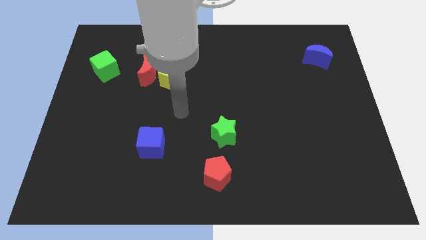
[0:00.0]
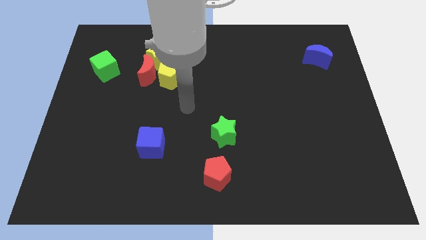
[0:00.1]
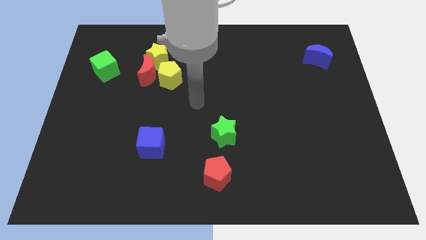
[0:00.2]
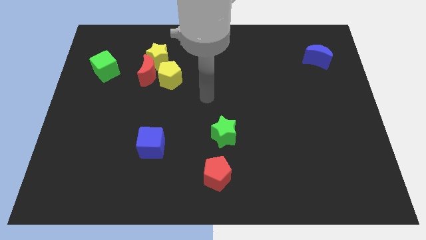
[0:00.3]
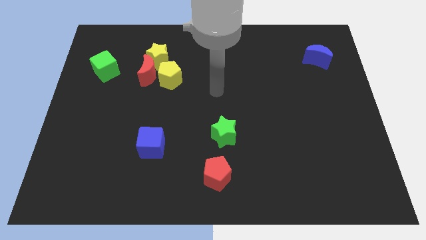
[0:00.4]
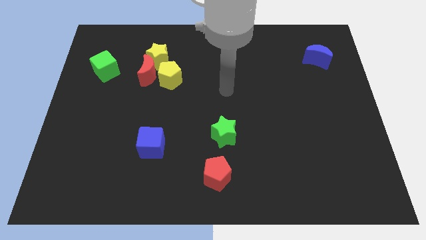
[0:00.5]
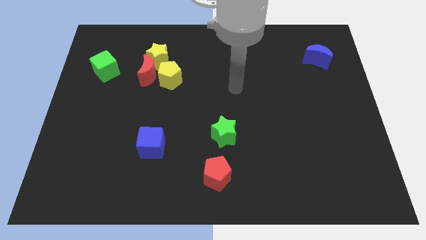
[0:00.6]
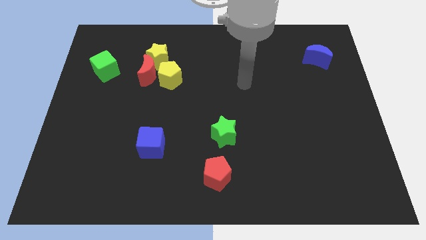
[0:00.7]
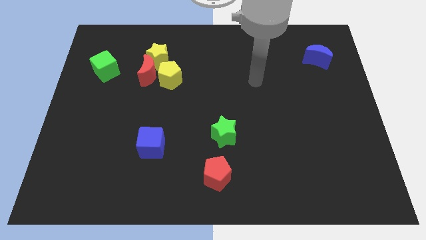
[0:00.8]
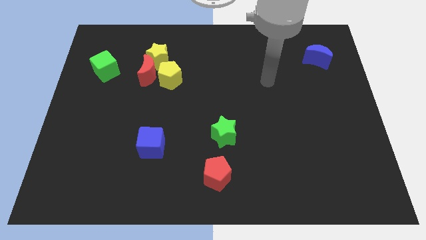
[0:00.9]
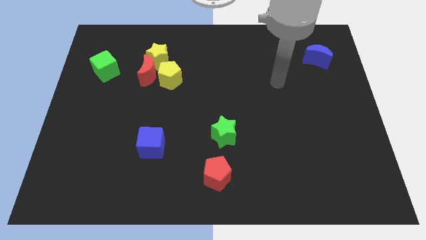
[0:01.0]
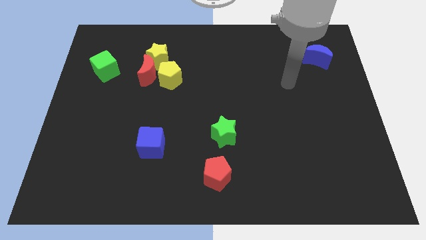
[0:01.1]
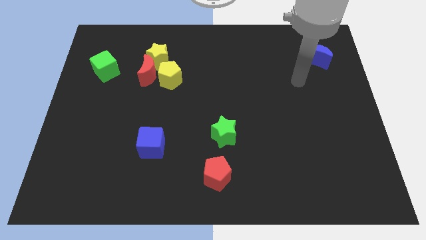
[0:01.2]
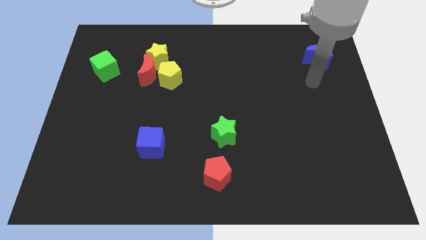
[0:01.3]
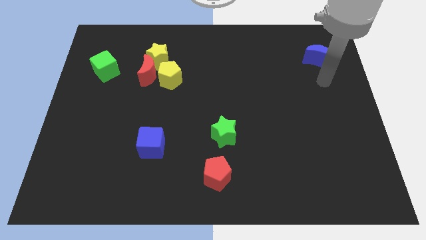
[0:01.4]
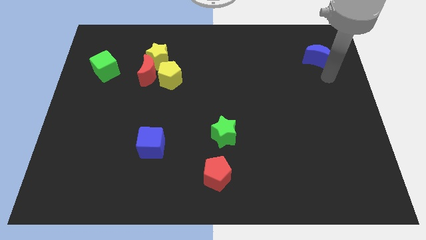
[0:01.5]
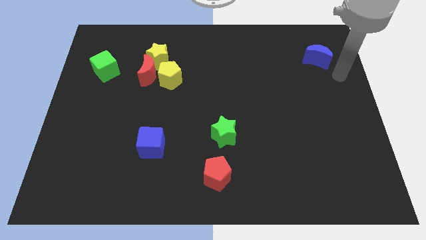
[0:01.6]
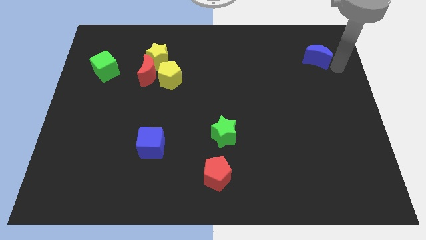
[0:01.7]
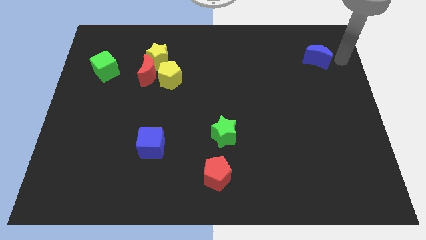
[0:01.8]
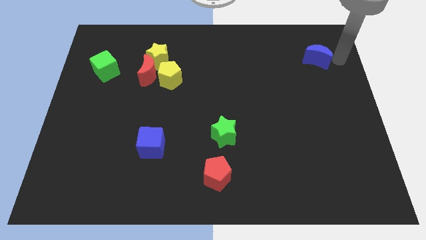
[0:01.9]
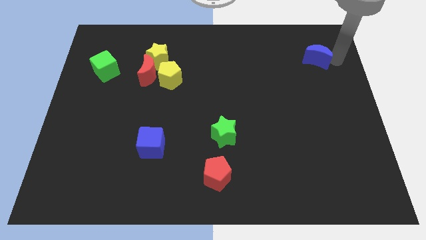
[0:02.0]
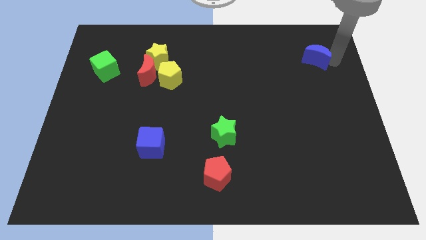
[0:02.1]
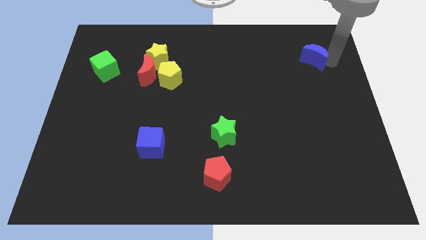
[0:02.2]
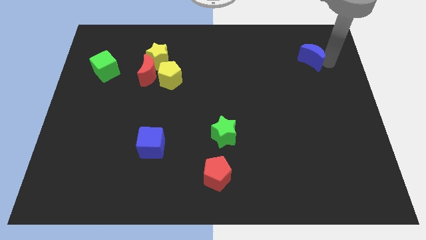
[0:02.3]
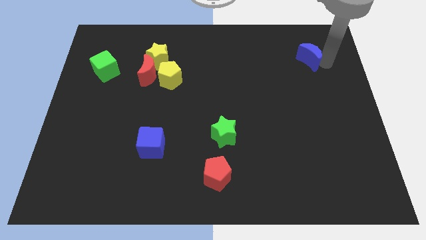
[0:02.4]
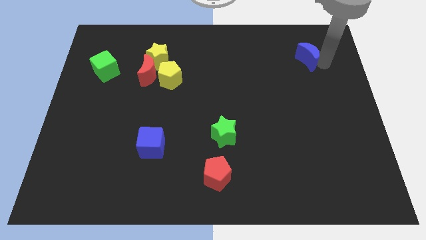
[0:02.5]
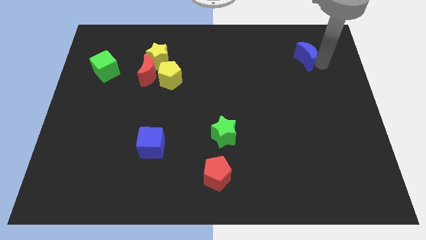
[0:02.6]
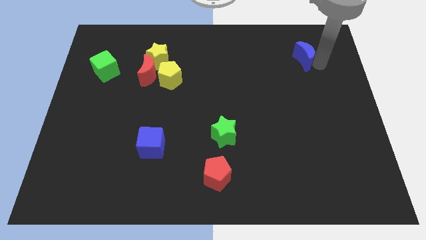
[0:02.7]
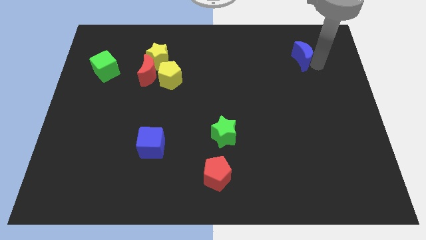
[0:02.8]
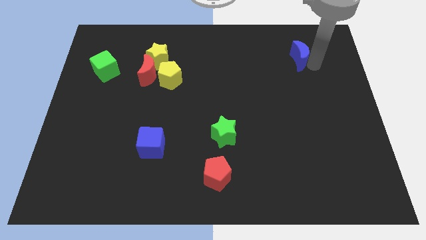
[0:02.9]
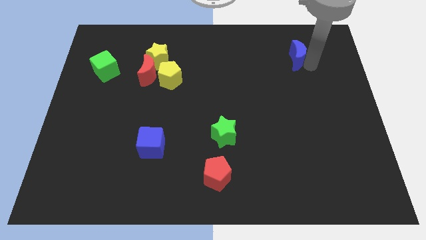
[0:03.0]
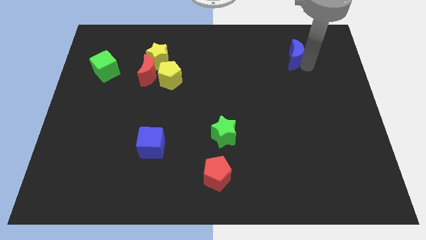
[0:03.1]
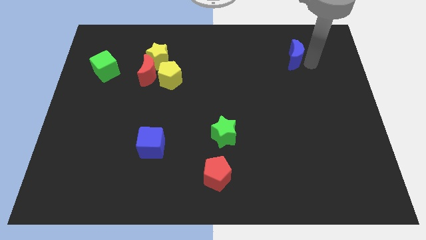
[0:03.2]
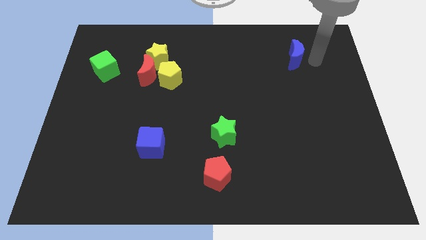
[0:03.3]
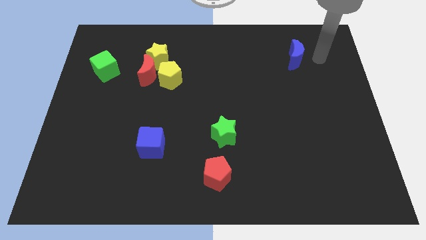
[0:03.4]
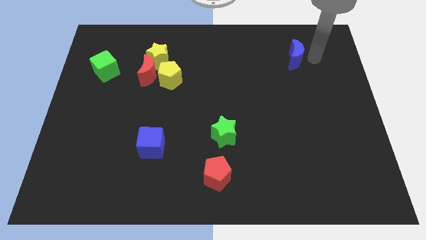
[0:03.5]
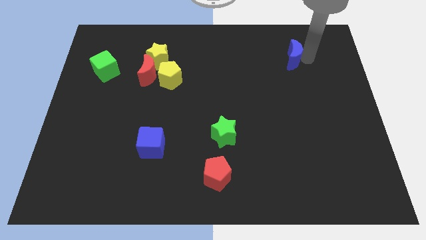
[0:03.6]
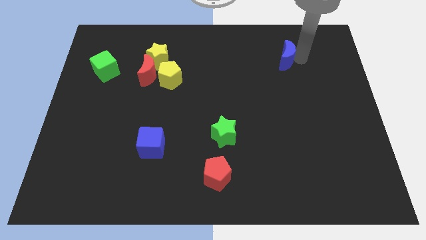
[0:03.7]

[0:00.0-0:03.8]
push the blue moon a bit left

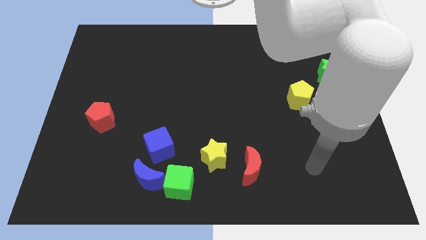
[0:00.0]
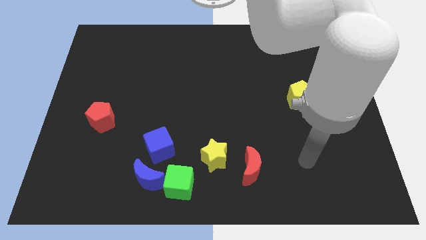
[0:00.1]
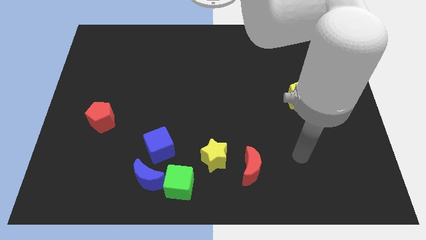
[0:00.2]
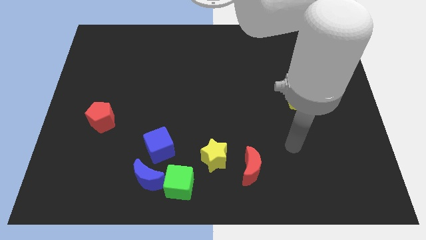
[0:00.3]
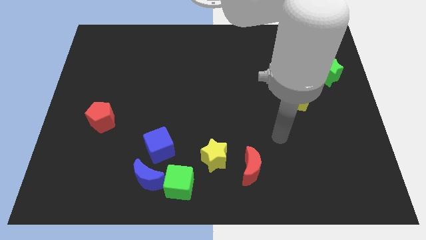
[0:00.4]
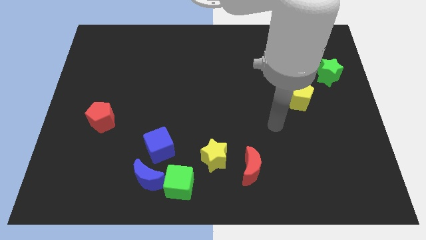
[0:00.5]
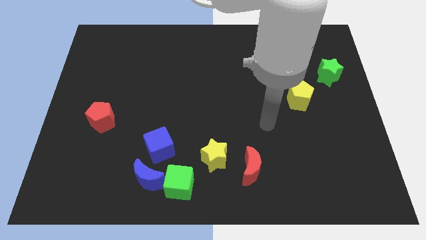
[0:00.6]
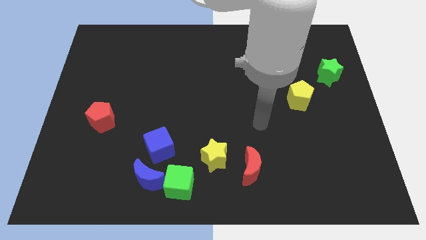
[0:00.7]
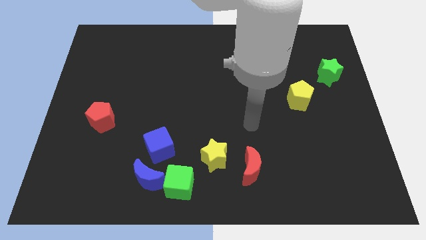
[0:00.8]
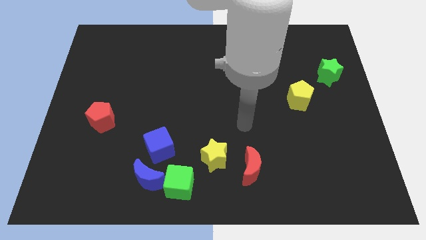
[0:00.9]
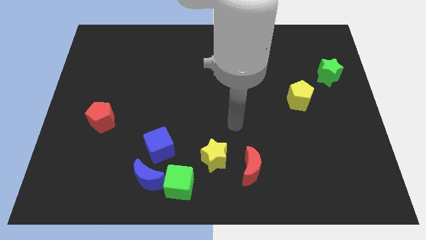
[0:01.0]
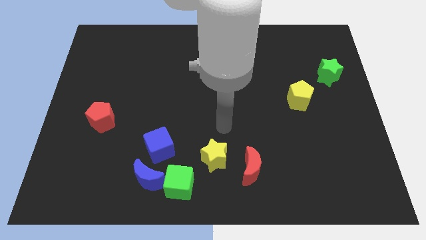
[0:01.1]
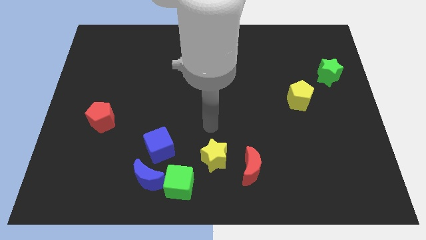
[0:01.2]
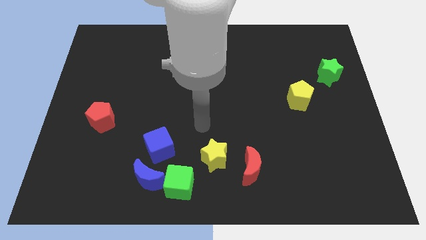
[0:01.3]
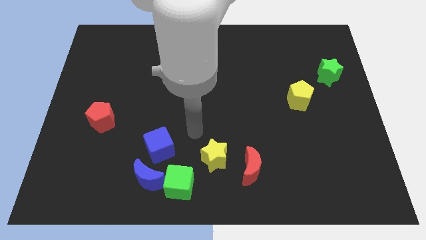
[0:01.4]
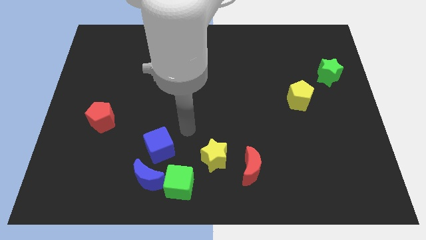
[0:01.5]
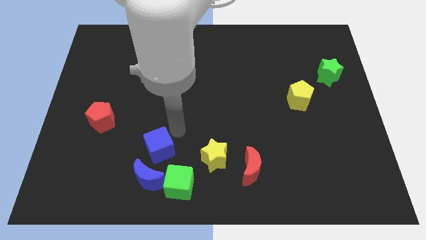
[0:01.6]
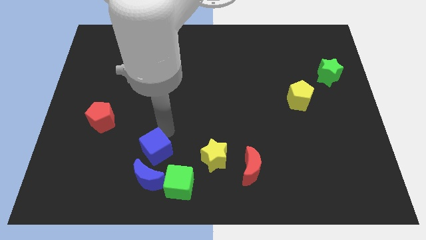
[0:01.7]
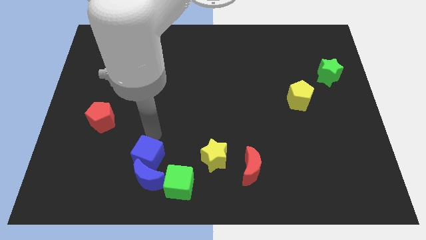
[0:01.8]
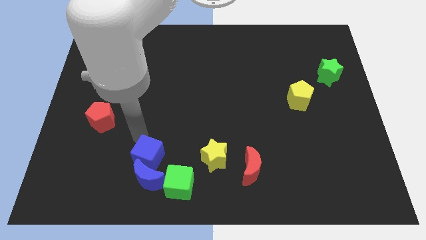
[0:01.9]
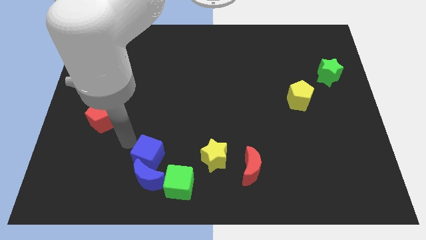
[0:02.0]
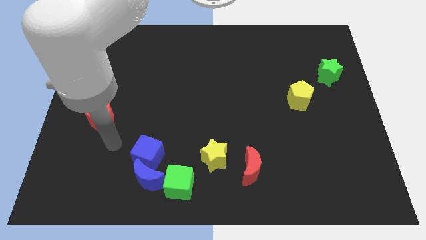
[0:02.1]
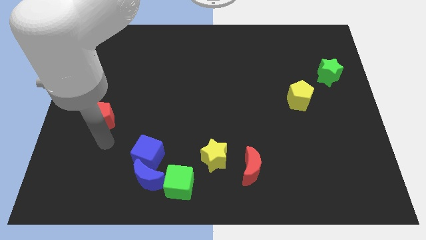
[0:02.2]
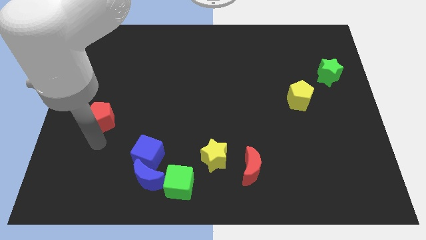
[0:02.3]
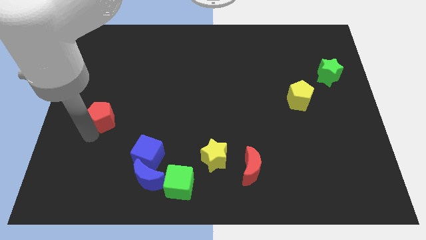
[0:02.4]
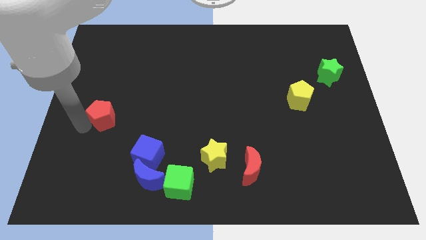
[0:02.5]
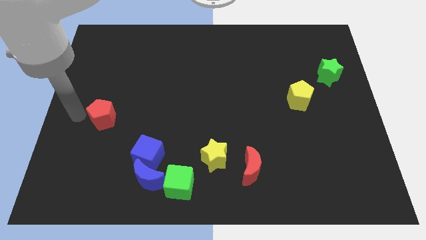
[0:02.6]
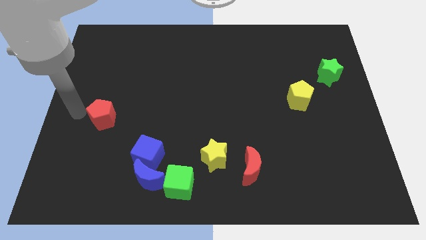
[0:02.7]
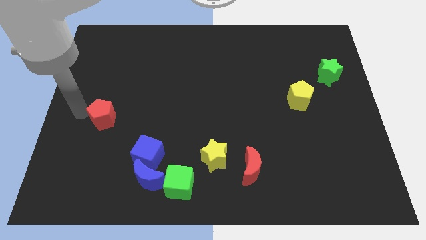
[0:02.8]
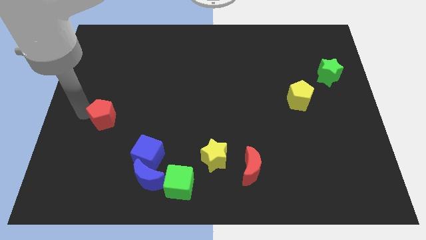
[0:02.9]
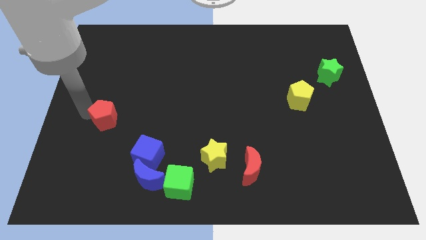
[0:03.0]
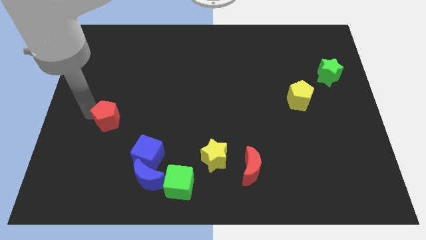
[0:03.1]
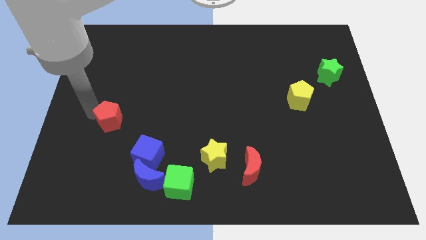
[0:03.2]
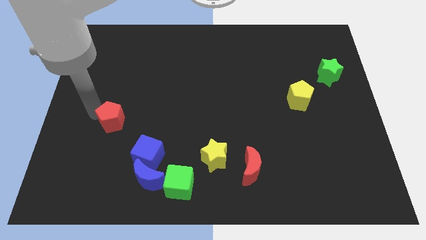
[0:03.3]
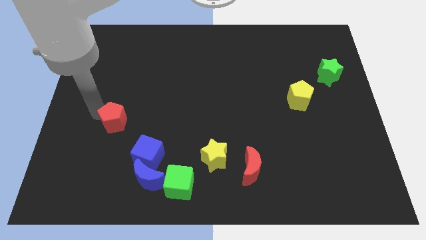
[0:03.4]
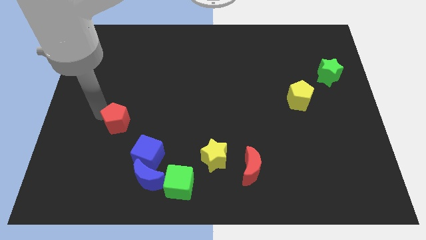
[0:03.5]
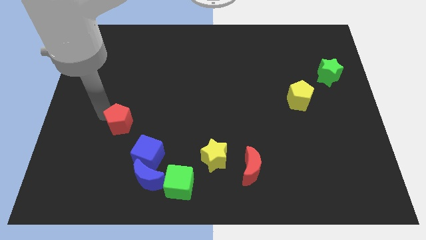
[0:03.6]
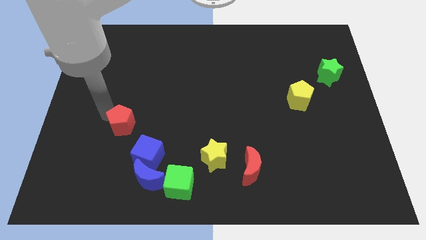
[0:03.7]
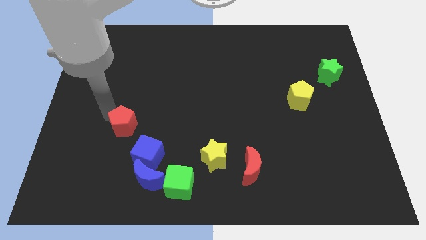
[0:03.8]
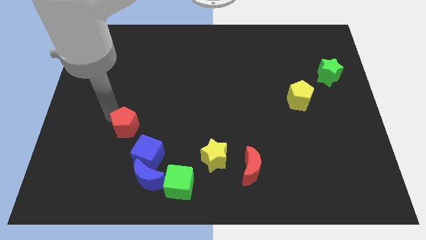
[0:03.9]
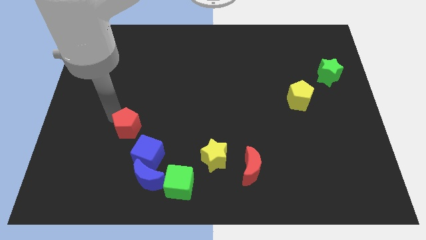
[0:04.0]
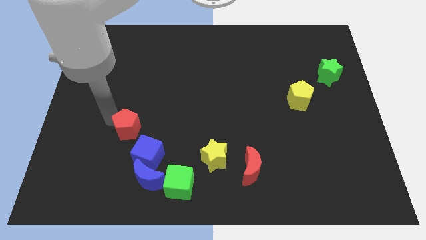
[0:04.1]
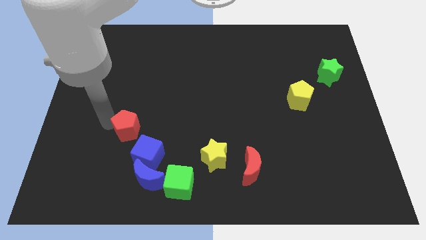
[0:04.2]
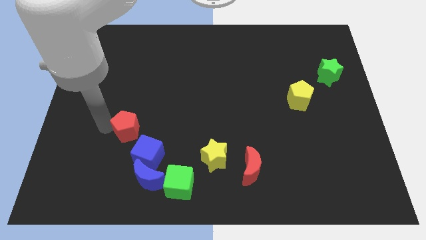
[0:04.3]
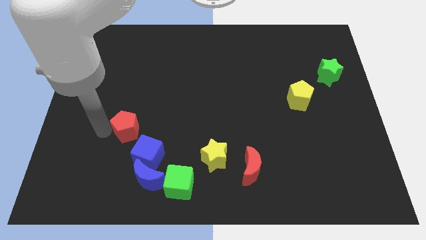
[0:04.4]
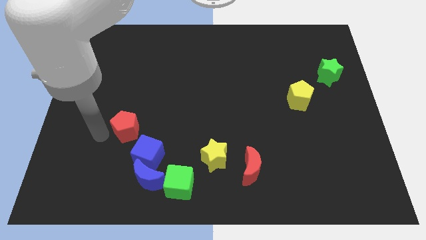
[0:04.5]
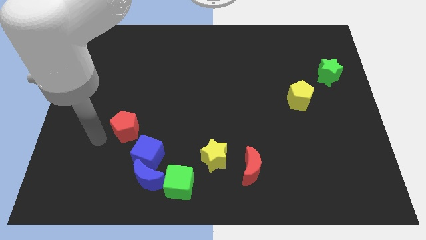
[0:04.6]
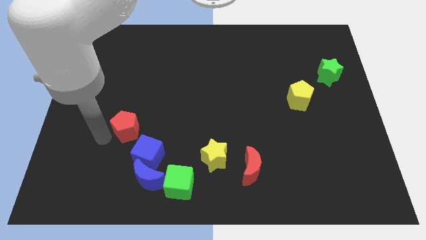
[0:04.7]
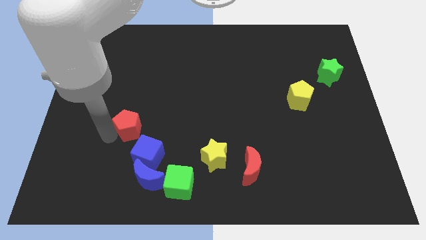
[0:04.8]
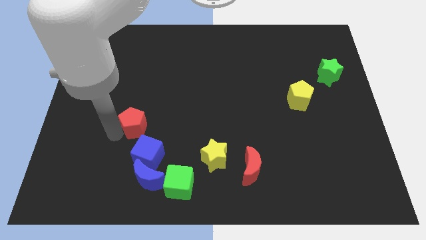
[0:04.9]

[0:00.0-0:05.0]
slide the red pentagon to the right a bit
